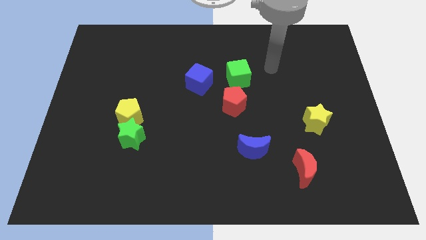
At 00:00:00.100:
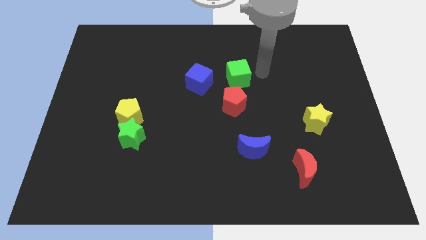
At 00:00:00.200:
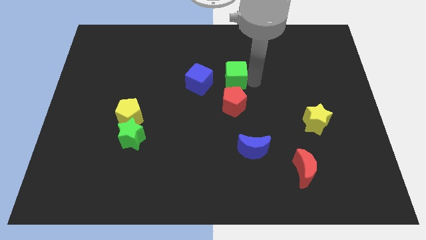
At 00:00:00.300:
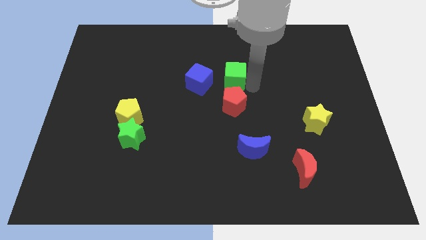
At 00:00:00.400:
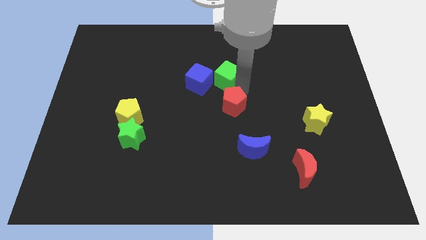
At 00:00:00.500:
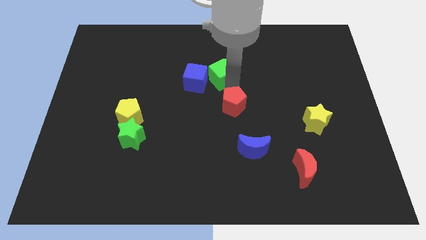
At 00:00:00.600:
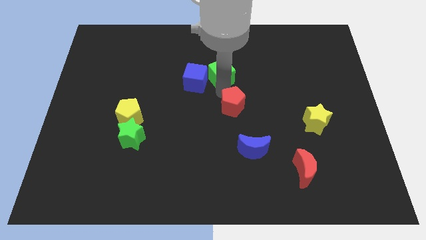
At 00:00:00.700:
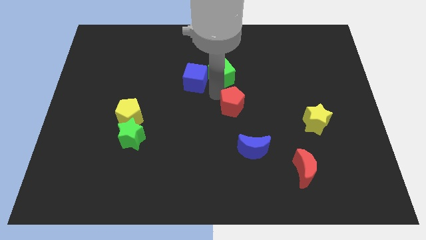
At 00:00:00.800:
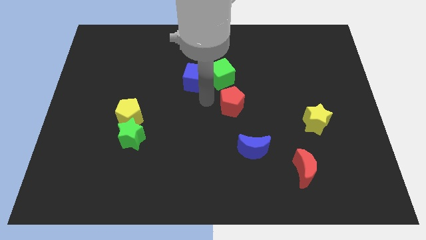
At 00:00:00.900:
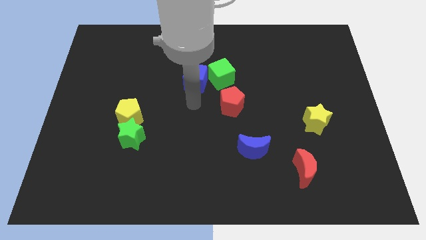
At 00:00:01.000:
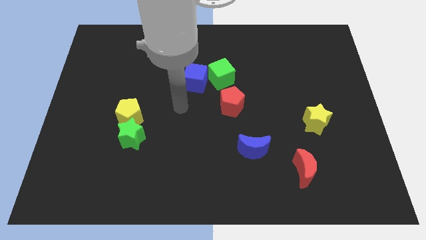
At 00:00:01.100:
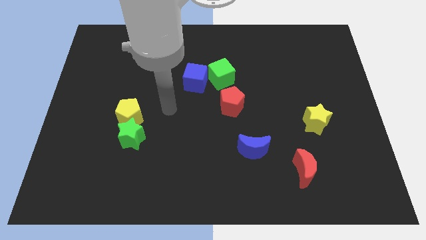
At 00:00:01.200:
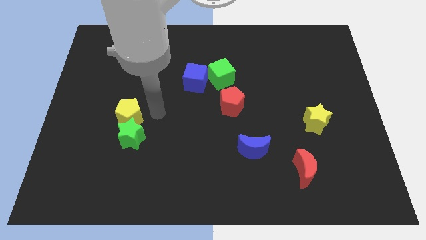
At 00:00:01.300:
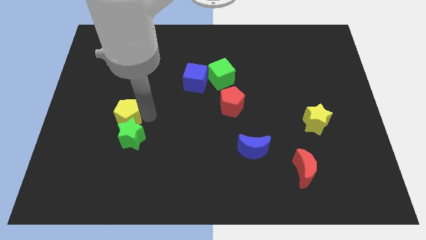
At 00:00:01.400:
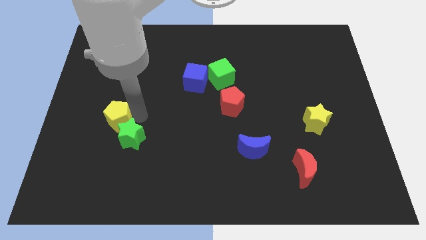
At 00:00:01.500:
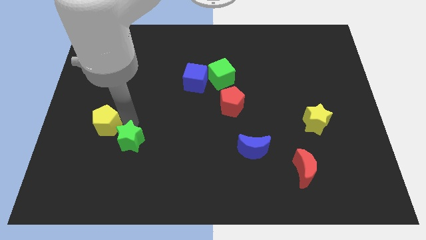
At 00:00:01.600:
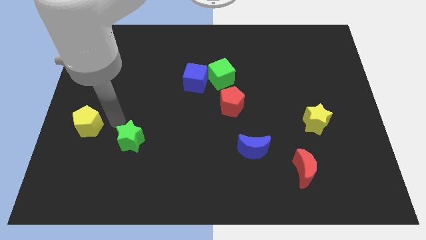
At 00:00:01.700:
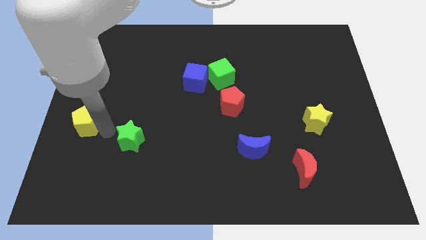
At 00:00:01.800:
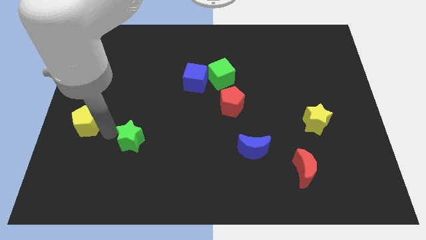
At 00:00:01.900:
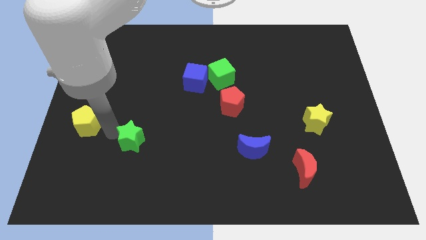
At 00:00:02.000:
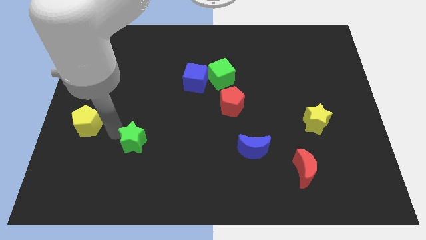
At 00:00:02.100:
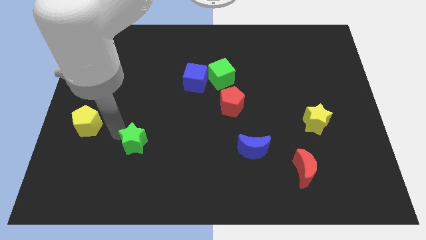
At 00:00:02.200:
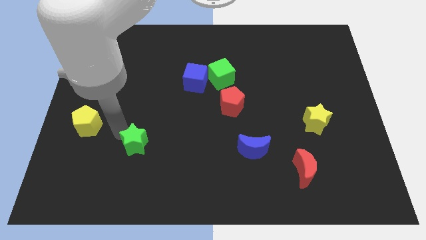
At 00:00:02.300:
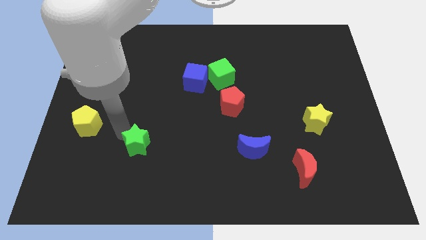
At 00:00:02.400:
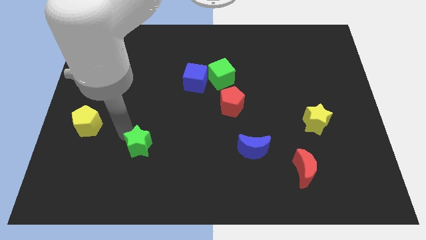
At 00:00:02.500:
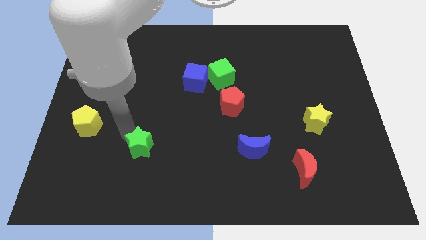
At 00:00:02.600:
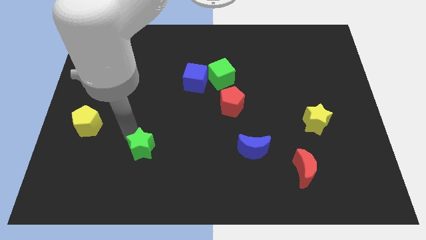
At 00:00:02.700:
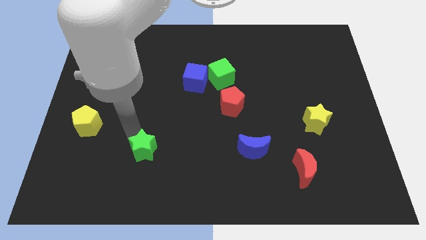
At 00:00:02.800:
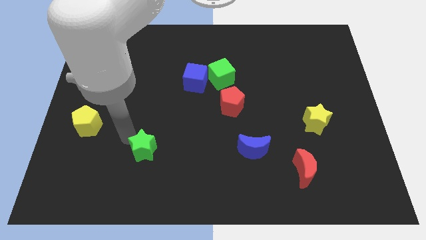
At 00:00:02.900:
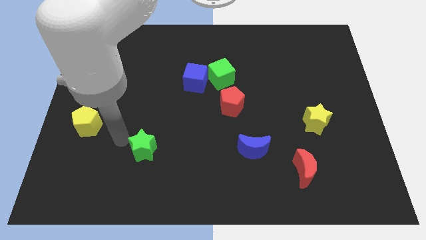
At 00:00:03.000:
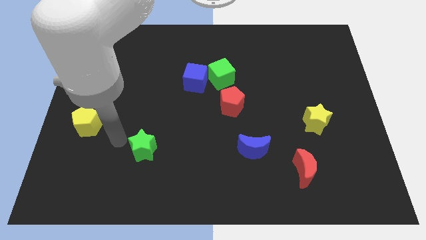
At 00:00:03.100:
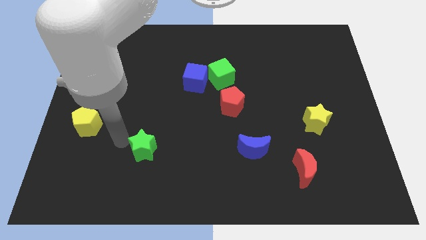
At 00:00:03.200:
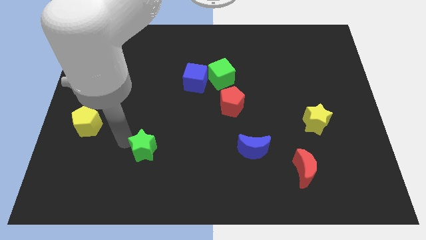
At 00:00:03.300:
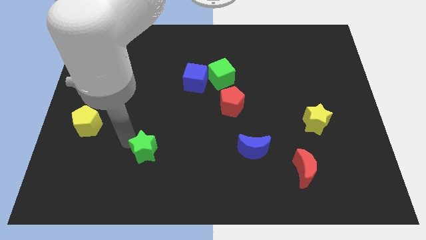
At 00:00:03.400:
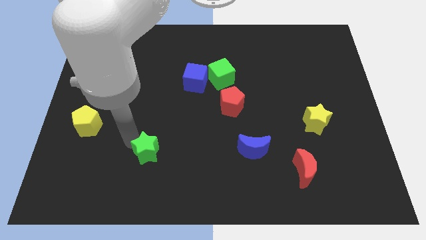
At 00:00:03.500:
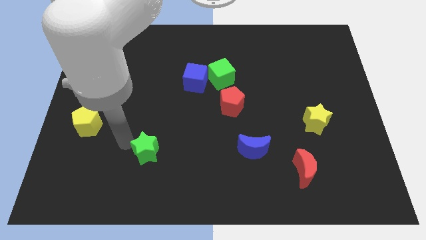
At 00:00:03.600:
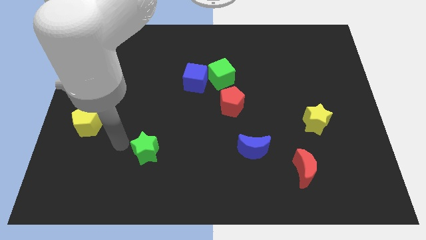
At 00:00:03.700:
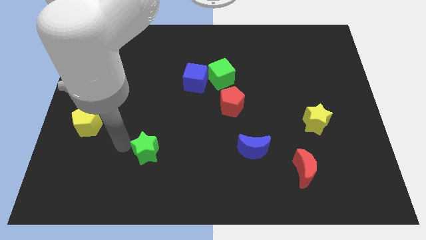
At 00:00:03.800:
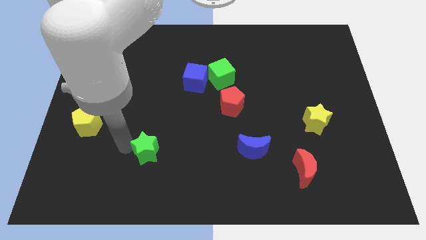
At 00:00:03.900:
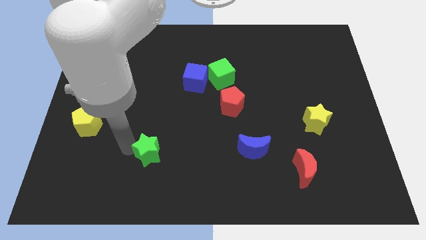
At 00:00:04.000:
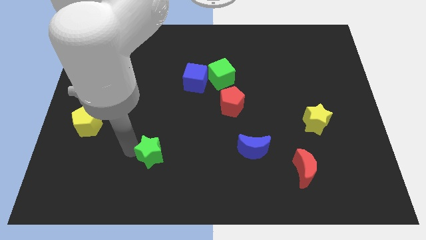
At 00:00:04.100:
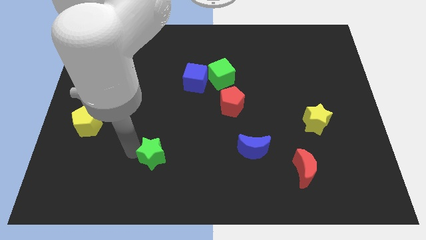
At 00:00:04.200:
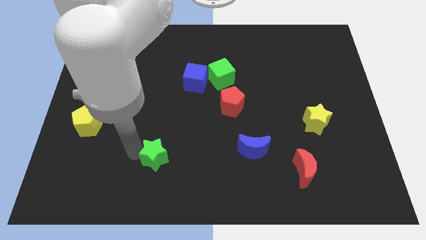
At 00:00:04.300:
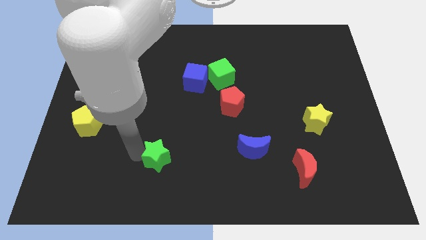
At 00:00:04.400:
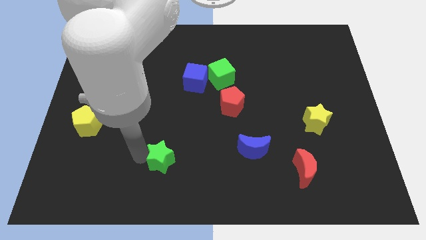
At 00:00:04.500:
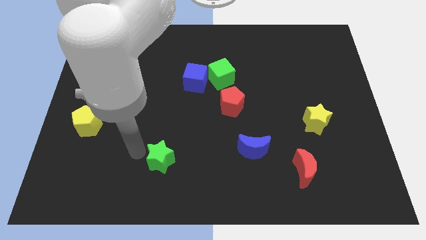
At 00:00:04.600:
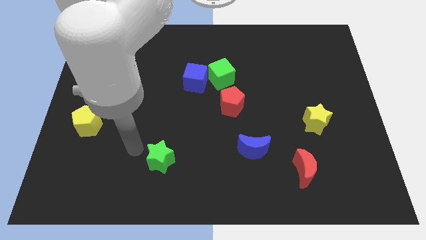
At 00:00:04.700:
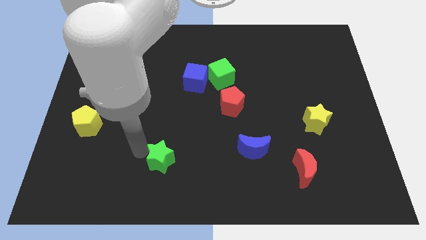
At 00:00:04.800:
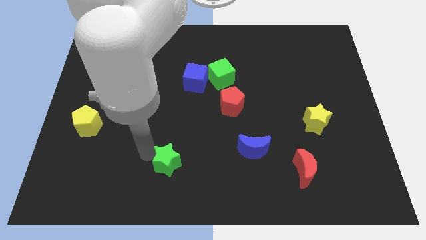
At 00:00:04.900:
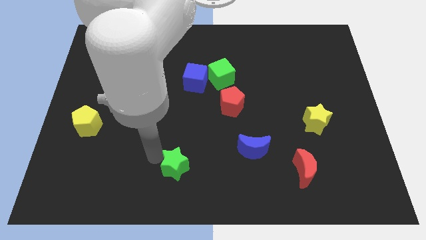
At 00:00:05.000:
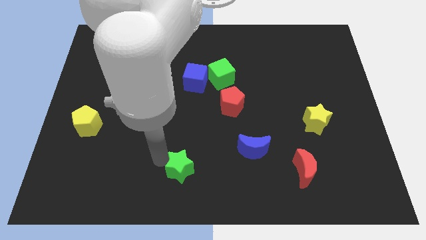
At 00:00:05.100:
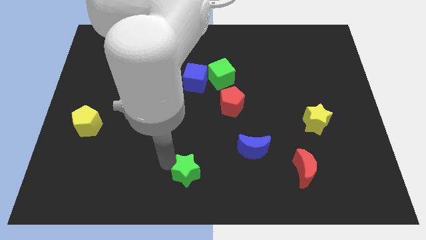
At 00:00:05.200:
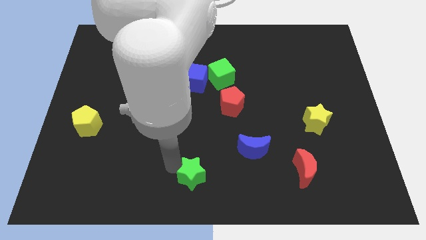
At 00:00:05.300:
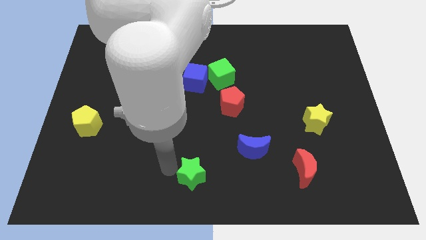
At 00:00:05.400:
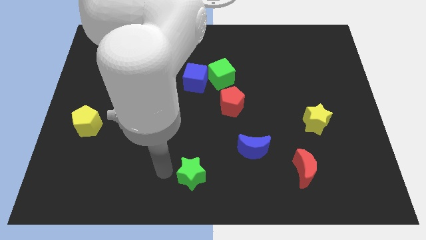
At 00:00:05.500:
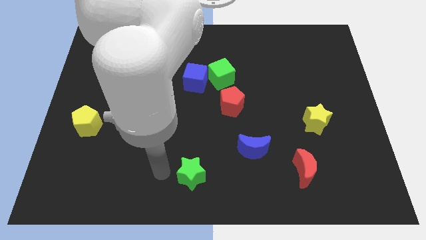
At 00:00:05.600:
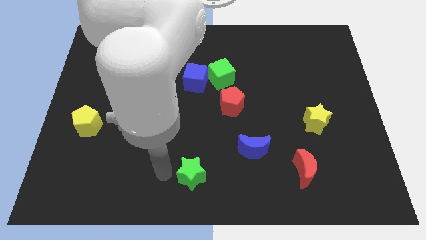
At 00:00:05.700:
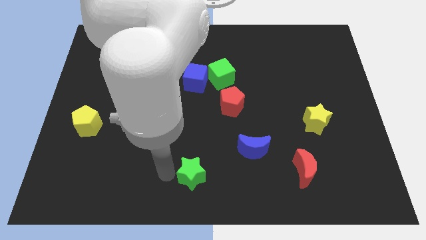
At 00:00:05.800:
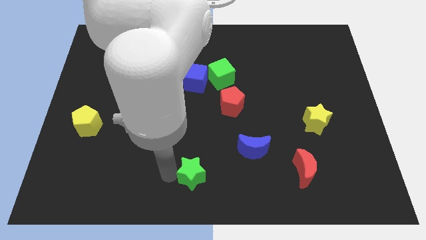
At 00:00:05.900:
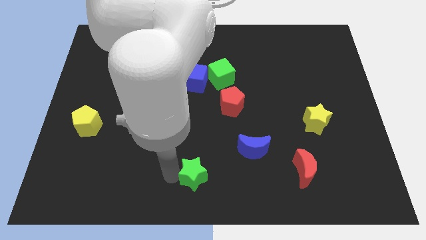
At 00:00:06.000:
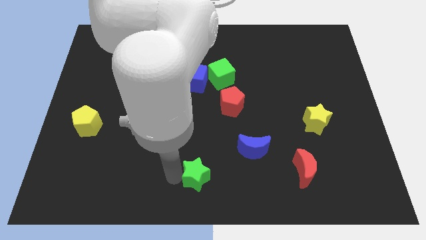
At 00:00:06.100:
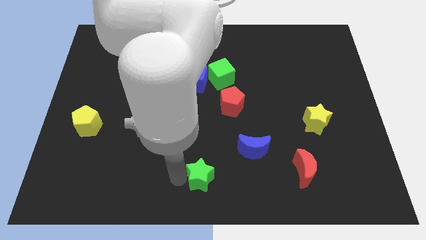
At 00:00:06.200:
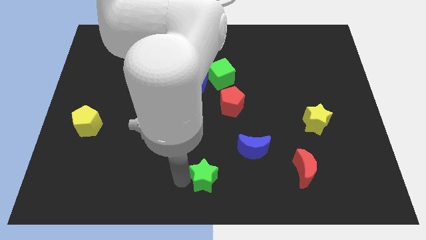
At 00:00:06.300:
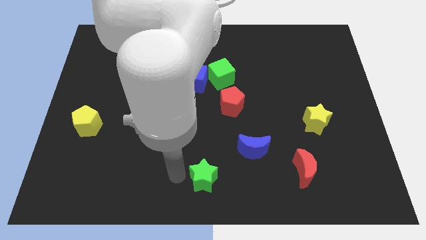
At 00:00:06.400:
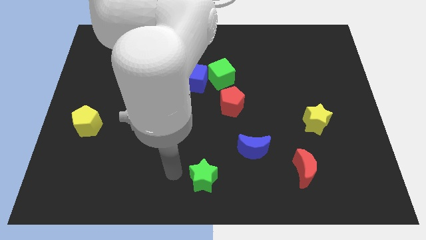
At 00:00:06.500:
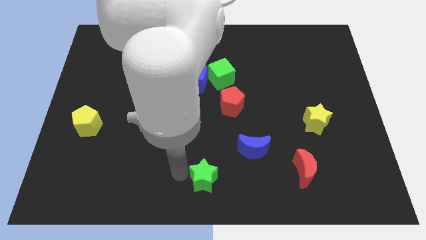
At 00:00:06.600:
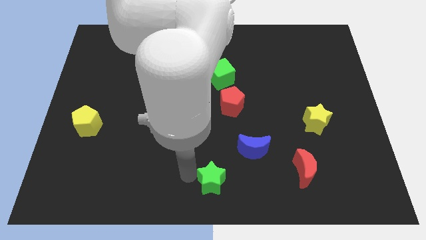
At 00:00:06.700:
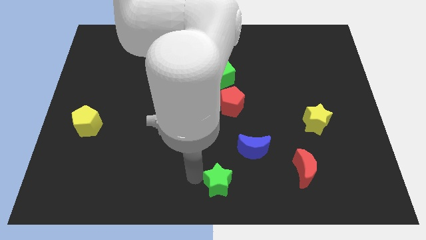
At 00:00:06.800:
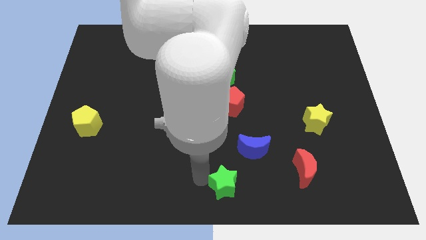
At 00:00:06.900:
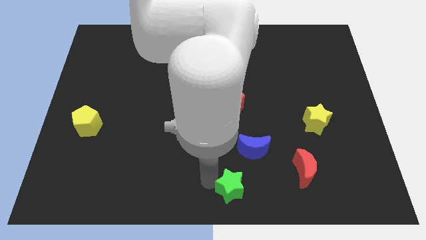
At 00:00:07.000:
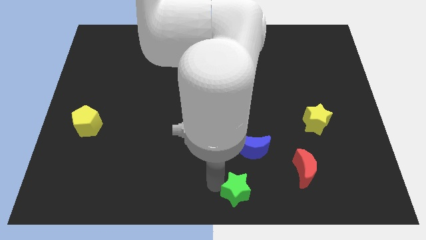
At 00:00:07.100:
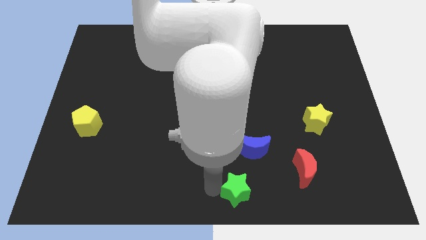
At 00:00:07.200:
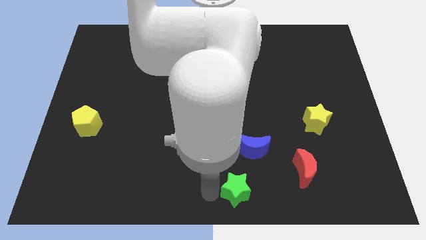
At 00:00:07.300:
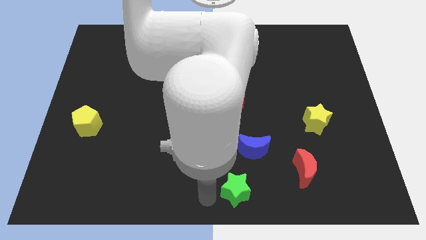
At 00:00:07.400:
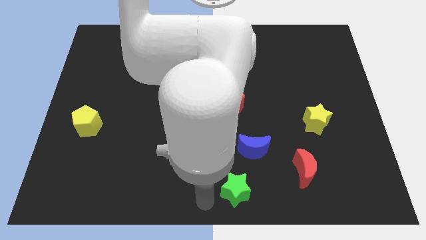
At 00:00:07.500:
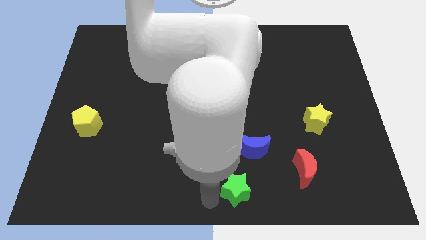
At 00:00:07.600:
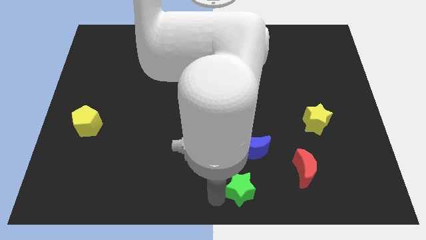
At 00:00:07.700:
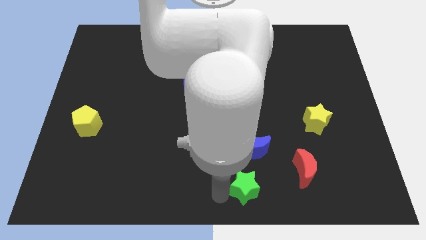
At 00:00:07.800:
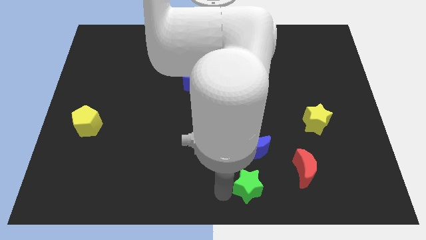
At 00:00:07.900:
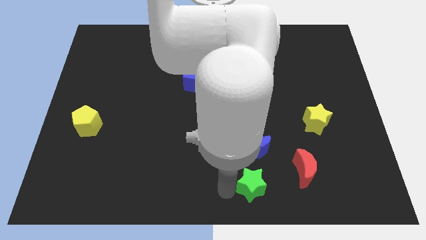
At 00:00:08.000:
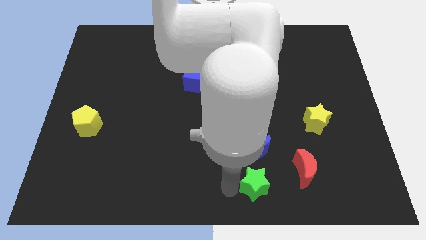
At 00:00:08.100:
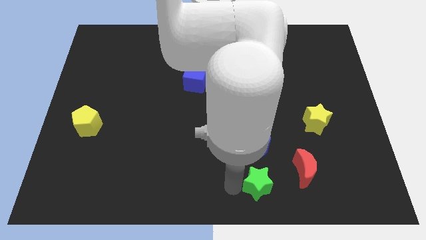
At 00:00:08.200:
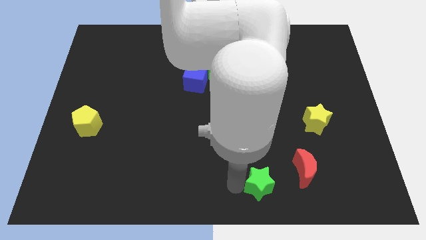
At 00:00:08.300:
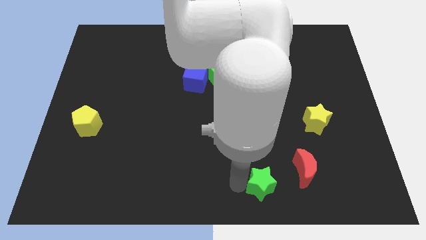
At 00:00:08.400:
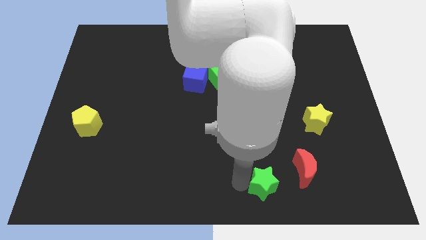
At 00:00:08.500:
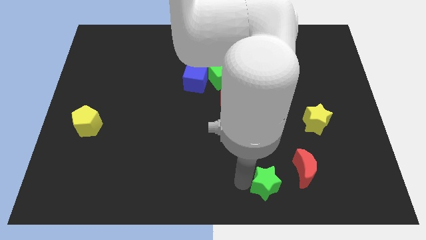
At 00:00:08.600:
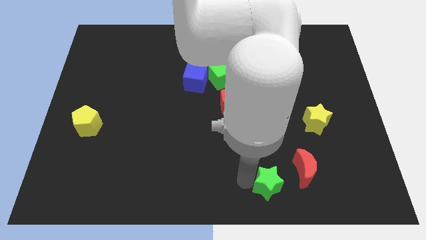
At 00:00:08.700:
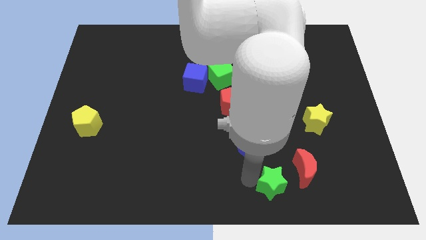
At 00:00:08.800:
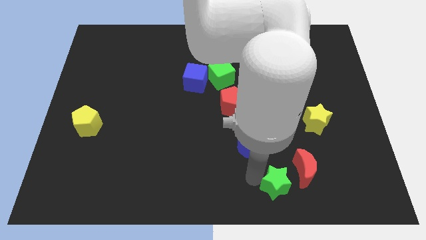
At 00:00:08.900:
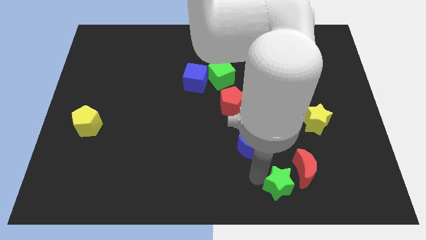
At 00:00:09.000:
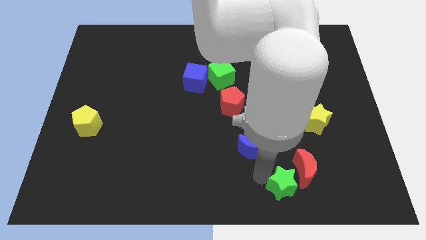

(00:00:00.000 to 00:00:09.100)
put the green star towards the red moon
